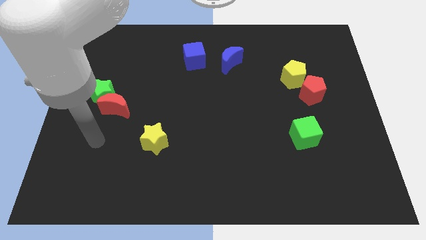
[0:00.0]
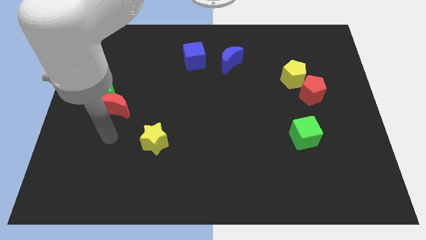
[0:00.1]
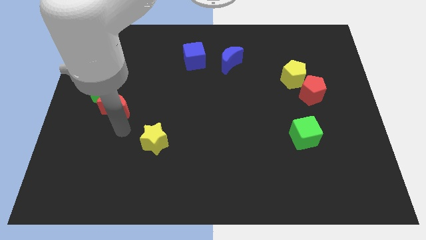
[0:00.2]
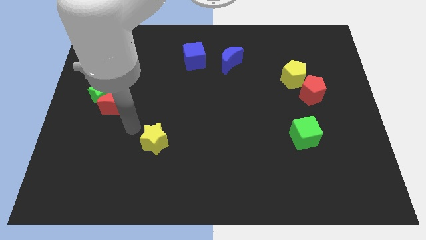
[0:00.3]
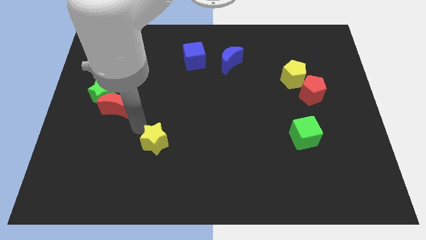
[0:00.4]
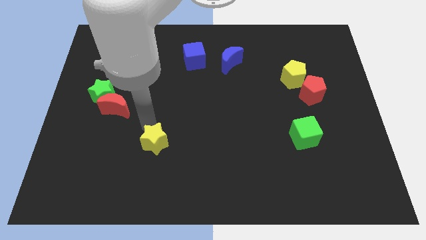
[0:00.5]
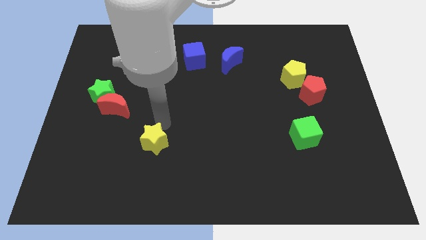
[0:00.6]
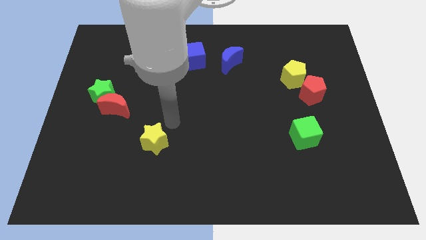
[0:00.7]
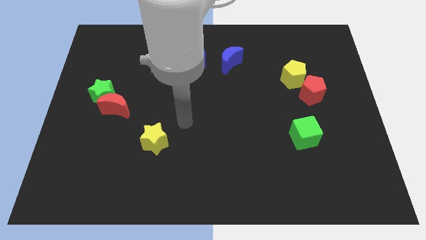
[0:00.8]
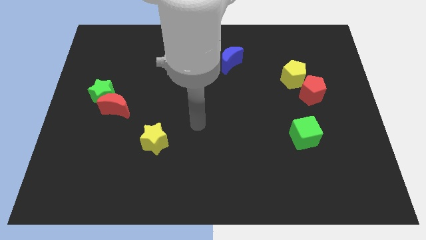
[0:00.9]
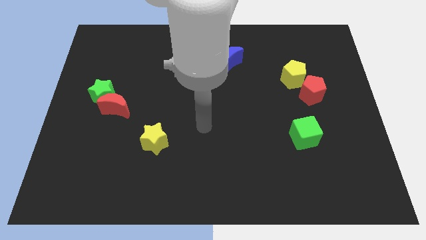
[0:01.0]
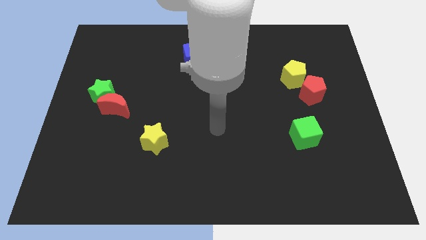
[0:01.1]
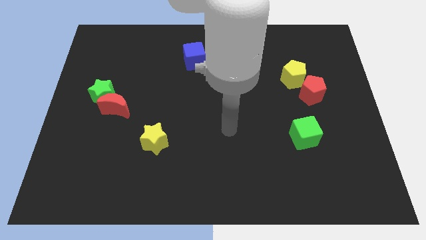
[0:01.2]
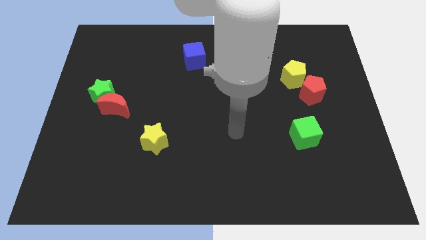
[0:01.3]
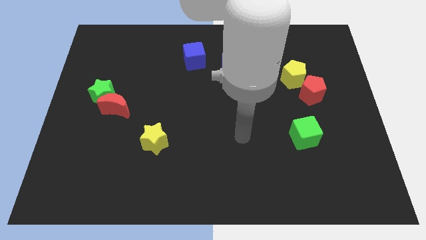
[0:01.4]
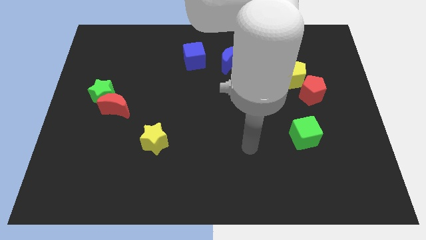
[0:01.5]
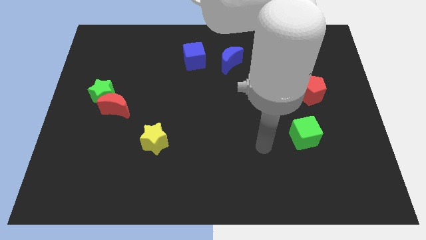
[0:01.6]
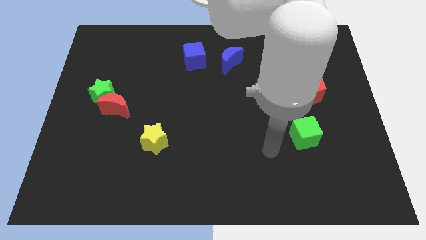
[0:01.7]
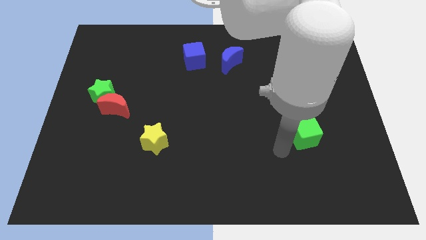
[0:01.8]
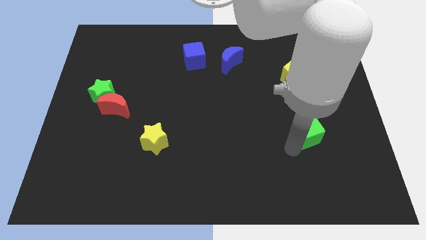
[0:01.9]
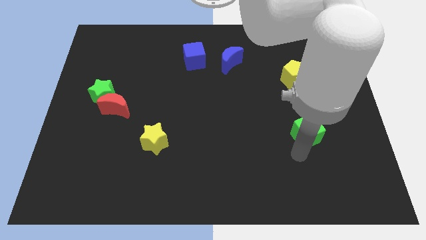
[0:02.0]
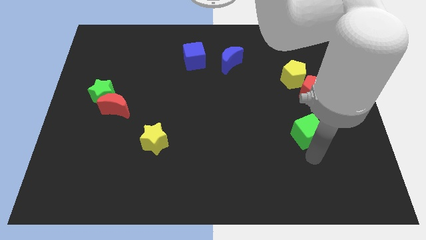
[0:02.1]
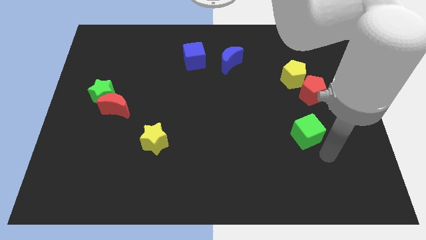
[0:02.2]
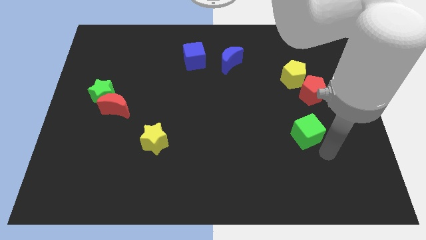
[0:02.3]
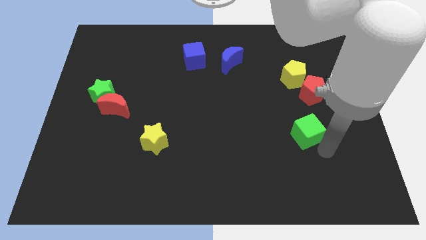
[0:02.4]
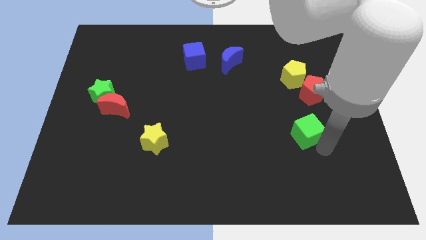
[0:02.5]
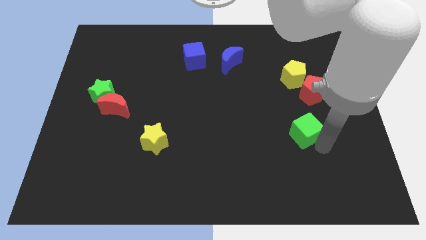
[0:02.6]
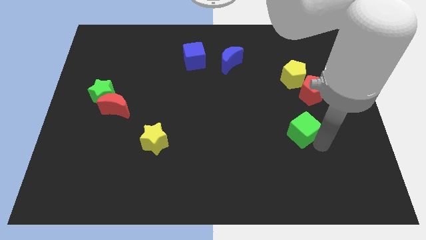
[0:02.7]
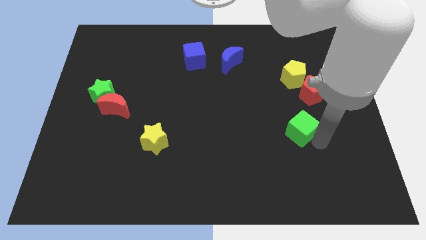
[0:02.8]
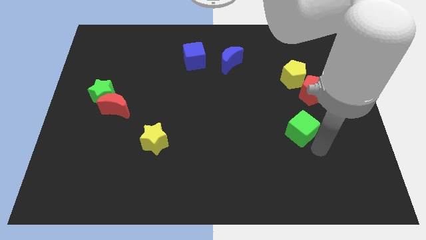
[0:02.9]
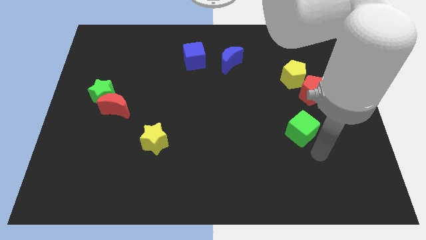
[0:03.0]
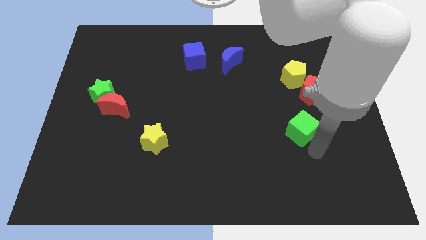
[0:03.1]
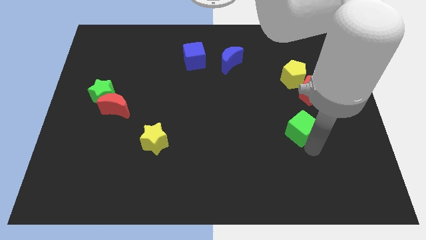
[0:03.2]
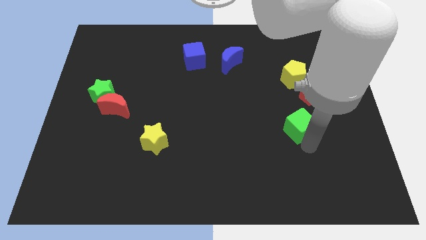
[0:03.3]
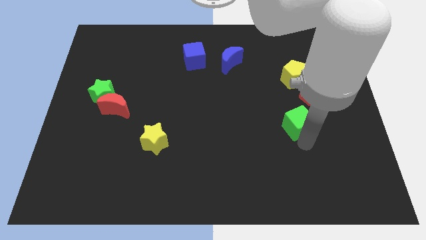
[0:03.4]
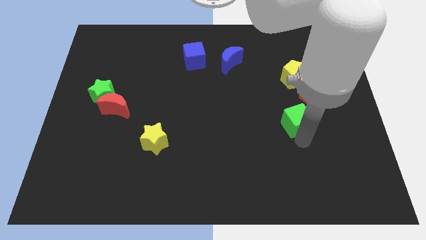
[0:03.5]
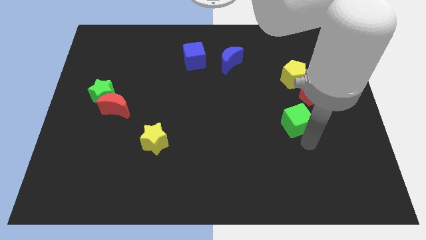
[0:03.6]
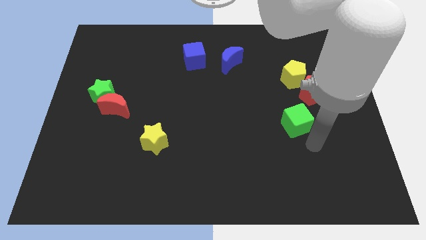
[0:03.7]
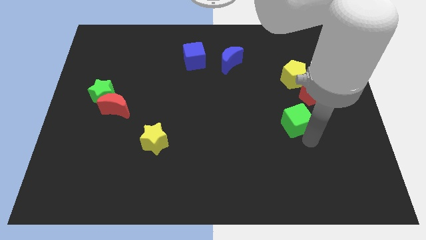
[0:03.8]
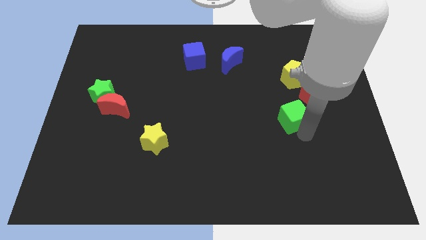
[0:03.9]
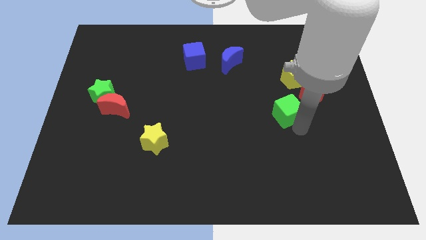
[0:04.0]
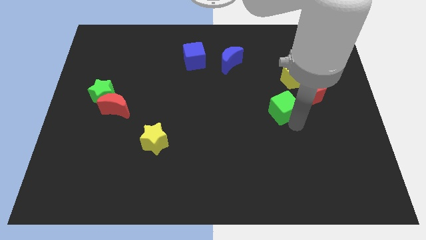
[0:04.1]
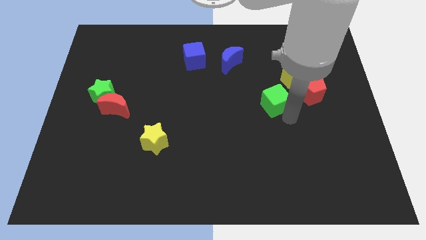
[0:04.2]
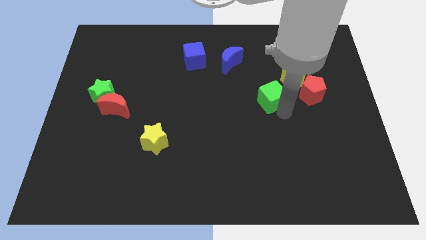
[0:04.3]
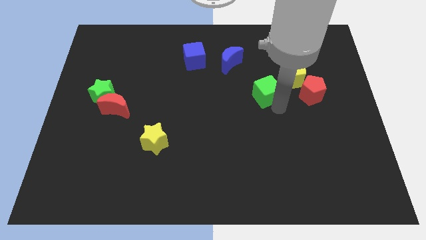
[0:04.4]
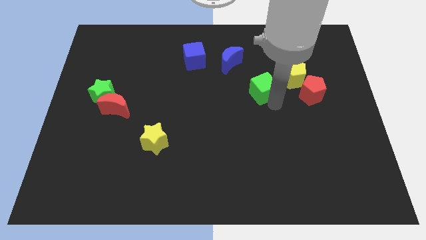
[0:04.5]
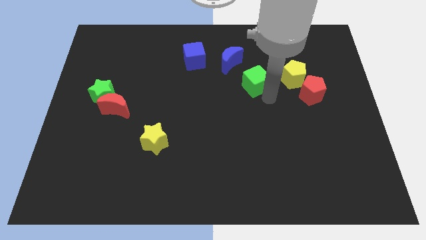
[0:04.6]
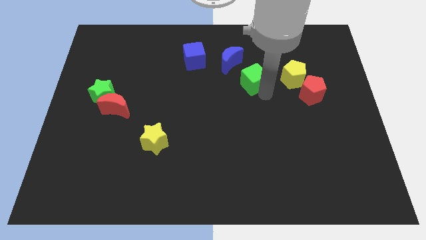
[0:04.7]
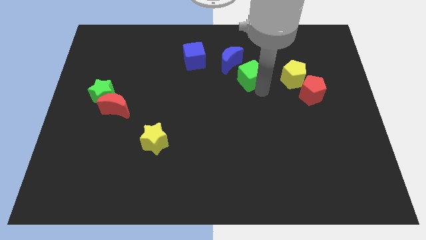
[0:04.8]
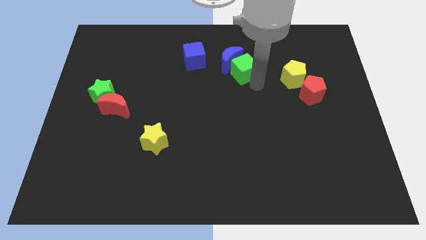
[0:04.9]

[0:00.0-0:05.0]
put the green cube to the blue moon

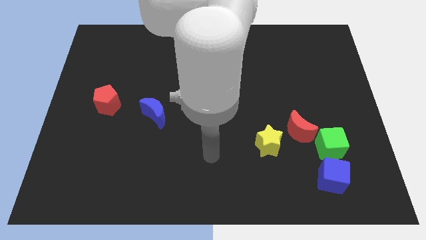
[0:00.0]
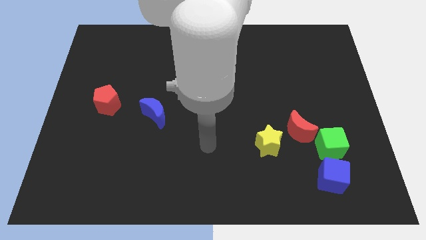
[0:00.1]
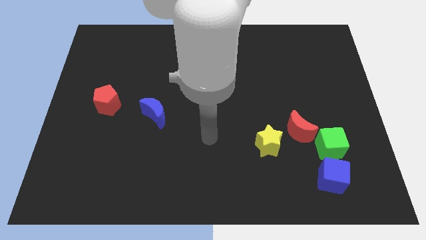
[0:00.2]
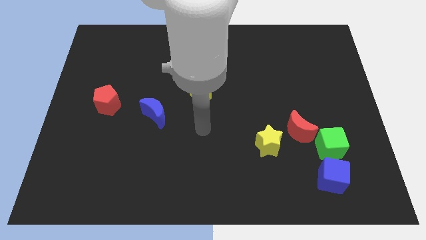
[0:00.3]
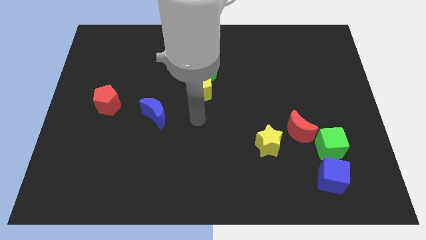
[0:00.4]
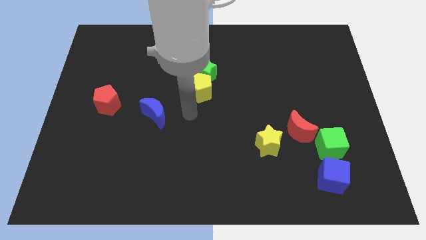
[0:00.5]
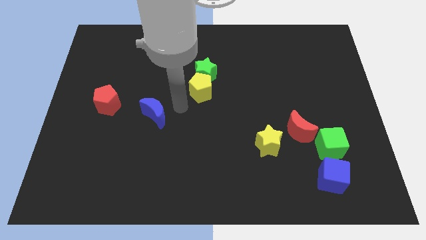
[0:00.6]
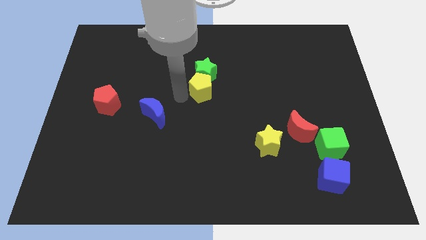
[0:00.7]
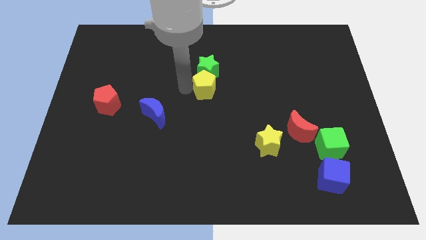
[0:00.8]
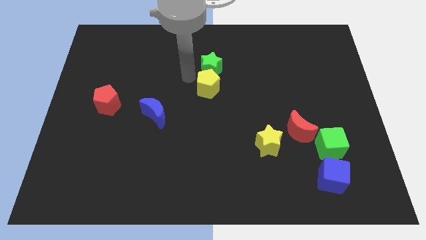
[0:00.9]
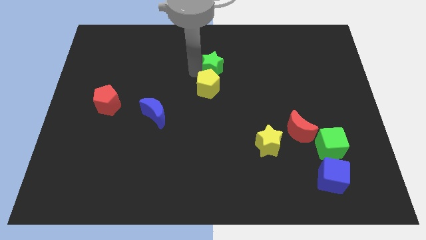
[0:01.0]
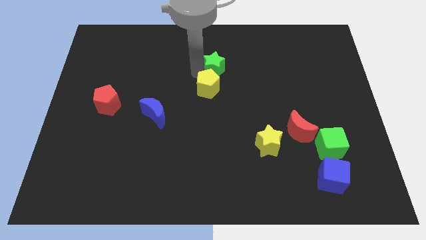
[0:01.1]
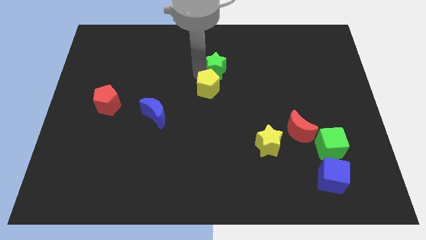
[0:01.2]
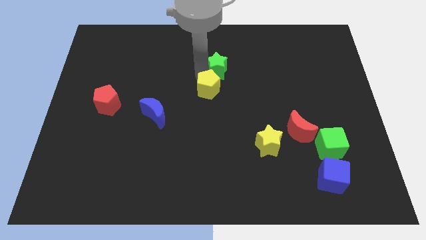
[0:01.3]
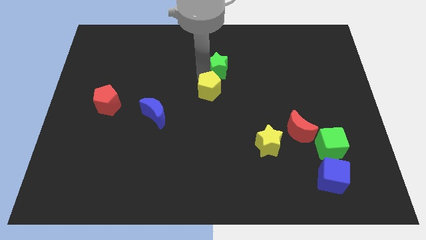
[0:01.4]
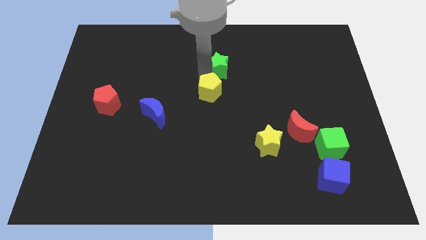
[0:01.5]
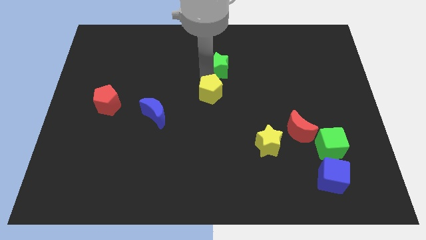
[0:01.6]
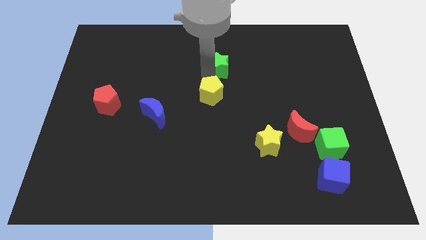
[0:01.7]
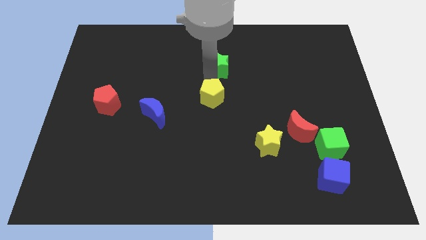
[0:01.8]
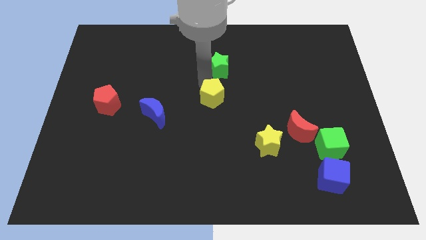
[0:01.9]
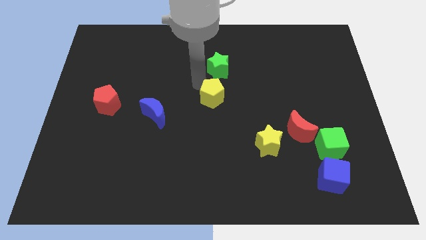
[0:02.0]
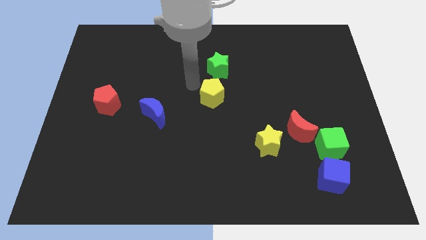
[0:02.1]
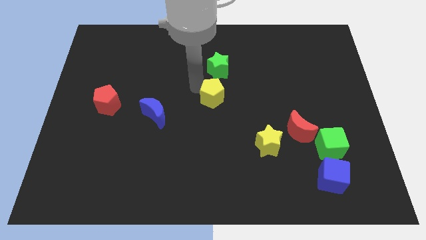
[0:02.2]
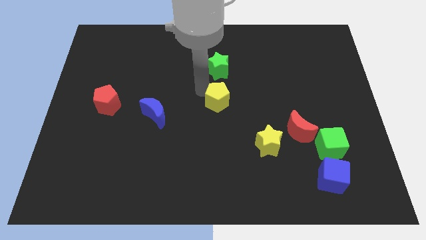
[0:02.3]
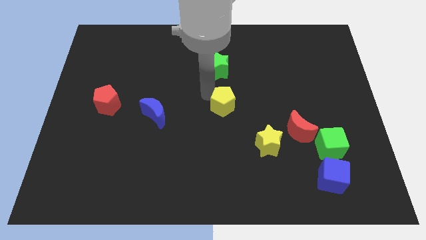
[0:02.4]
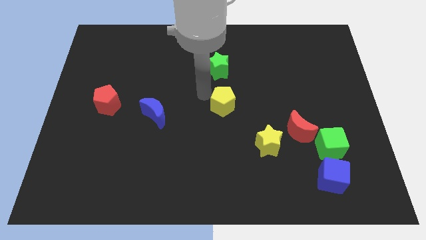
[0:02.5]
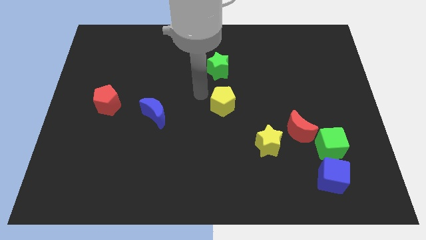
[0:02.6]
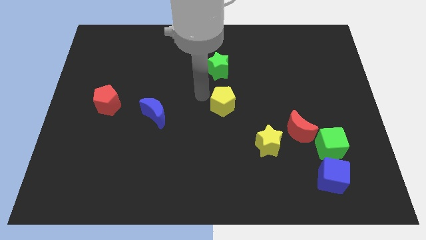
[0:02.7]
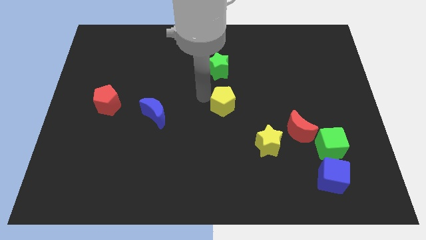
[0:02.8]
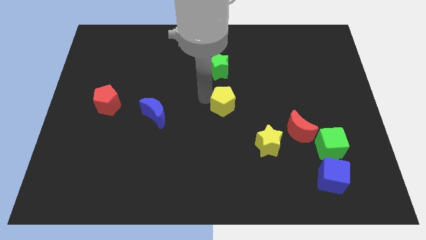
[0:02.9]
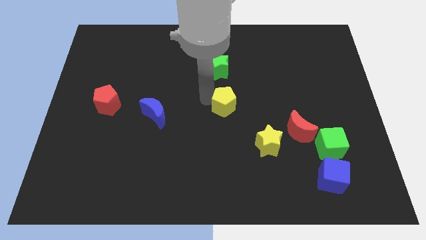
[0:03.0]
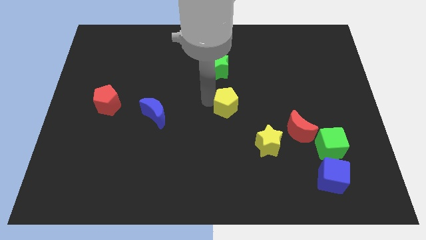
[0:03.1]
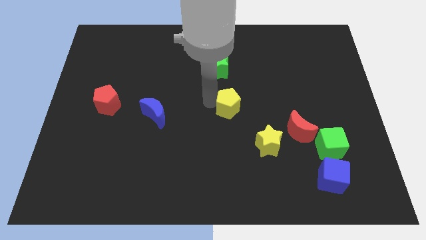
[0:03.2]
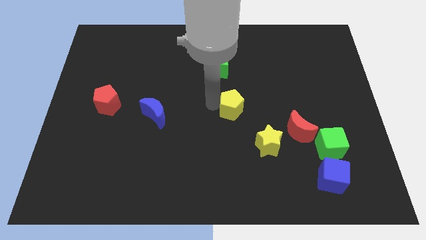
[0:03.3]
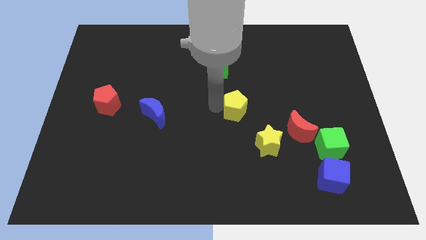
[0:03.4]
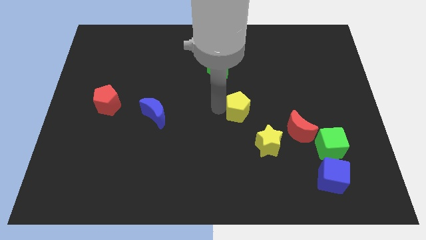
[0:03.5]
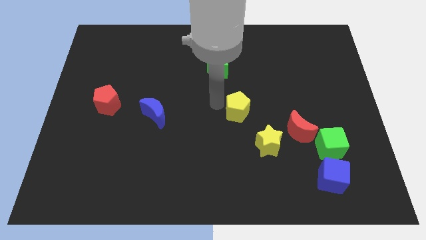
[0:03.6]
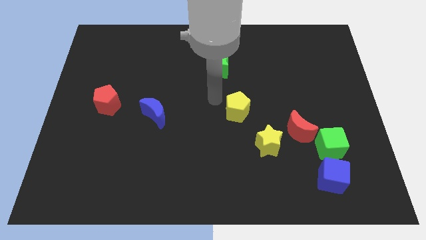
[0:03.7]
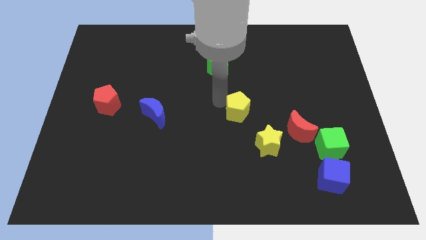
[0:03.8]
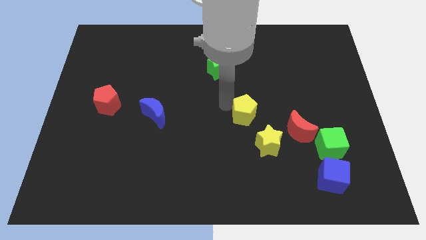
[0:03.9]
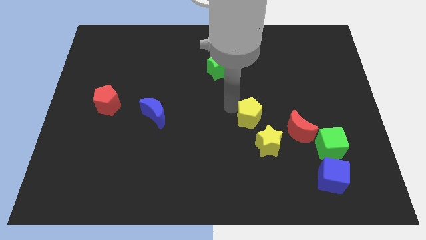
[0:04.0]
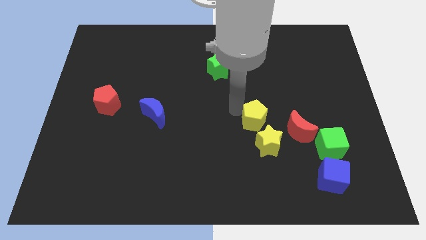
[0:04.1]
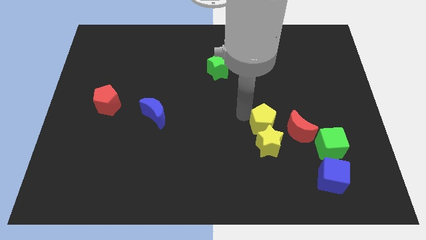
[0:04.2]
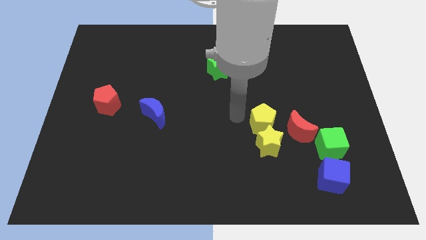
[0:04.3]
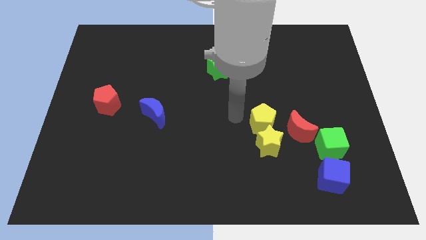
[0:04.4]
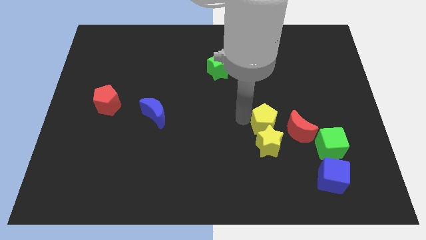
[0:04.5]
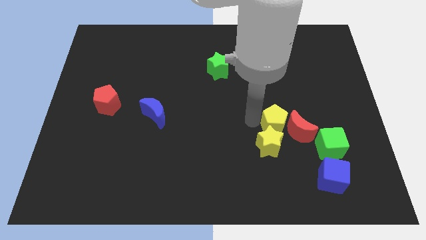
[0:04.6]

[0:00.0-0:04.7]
move the yellow pentagon to the red moon
